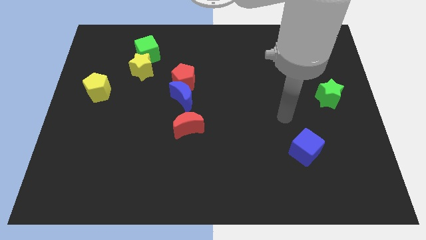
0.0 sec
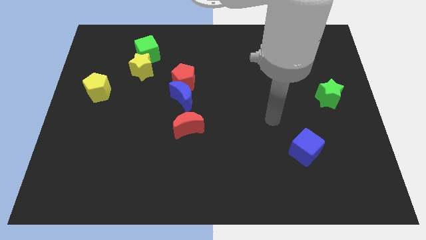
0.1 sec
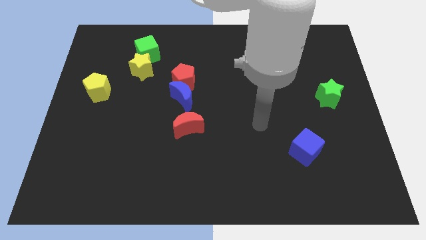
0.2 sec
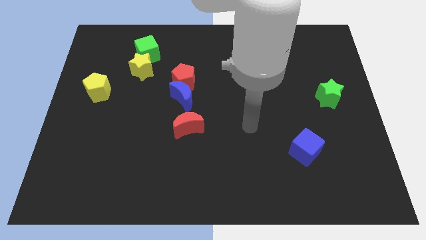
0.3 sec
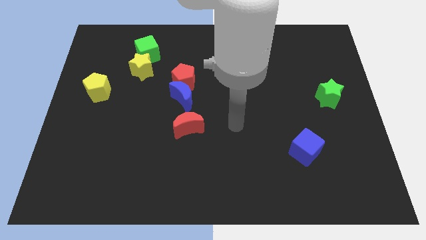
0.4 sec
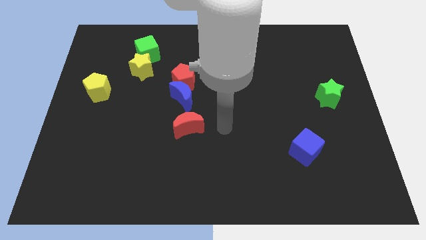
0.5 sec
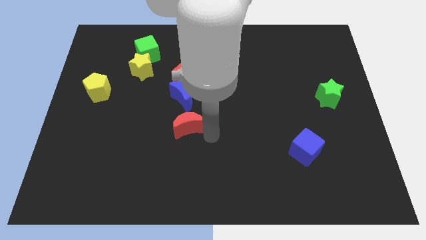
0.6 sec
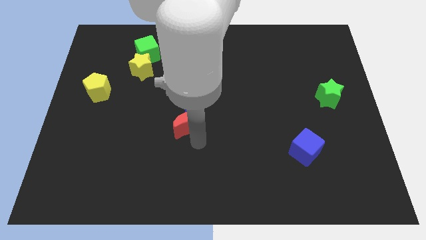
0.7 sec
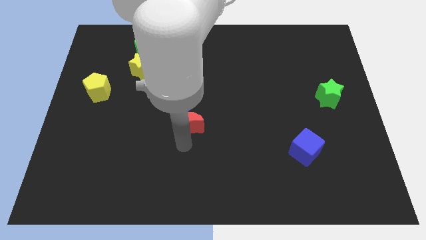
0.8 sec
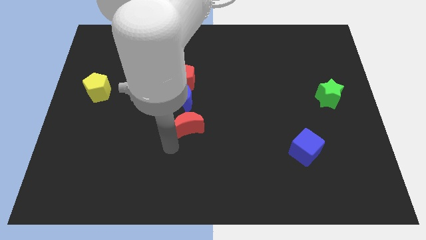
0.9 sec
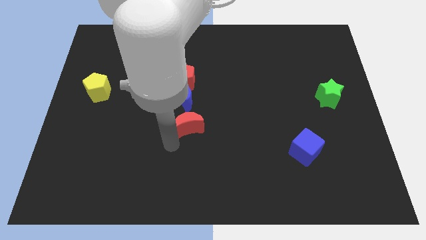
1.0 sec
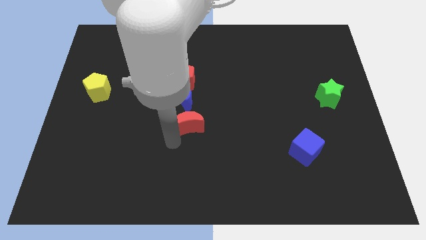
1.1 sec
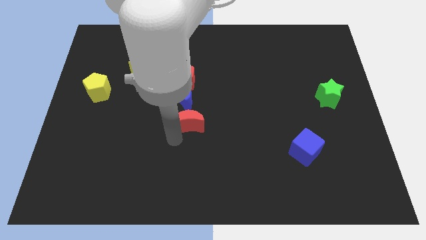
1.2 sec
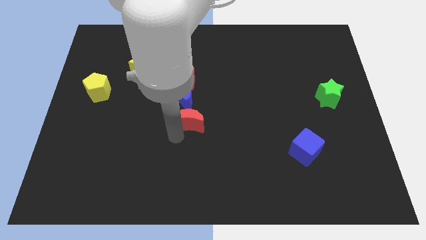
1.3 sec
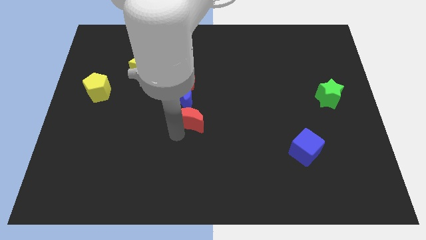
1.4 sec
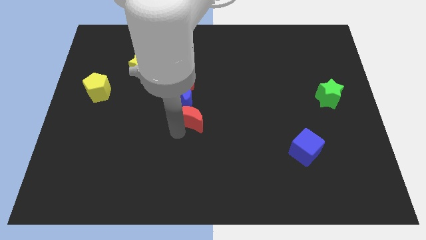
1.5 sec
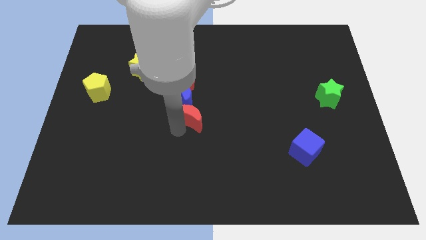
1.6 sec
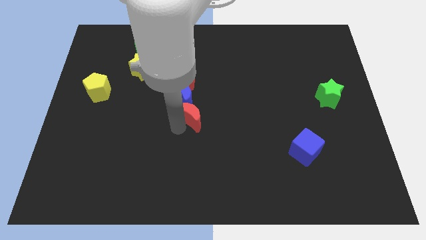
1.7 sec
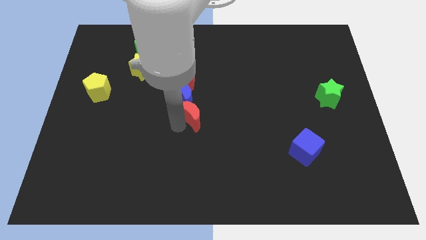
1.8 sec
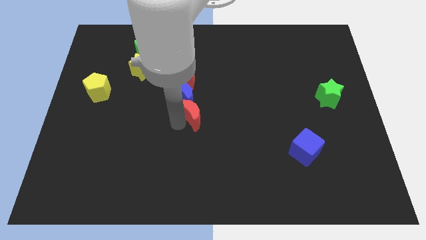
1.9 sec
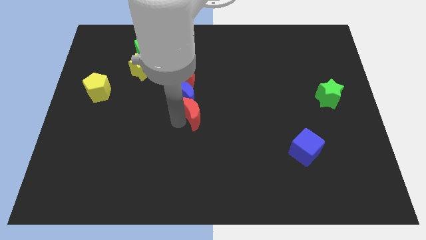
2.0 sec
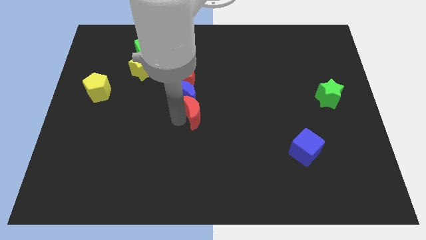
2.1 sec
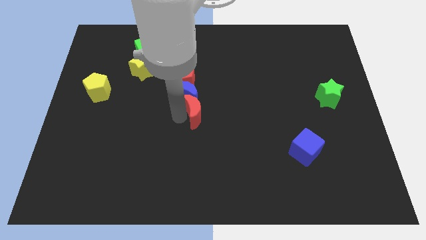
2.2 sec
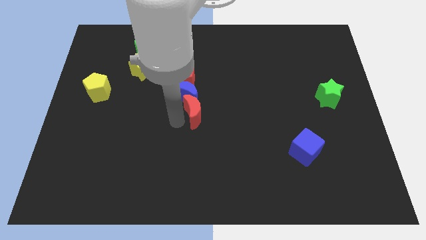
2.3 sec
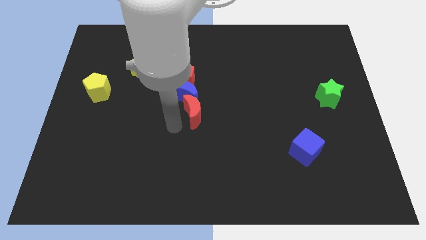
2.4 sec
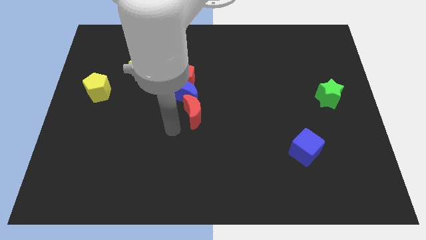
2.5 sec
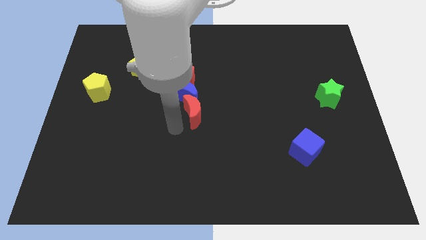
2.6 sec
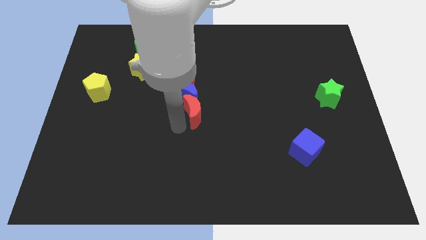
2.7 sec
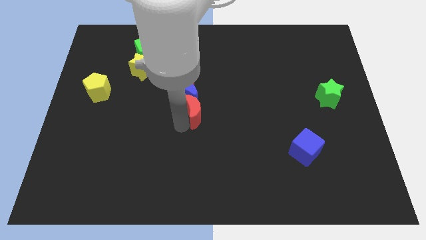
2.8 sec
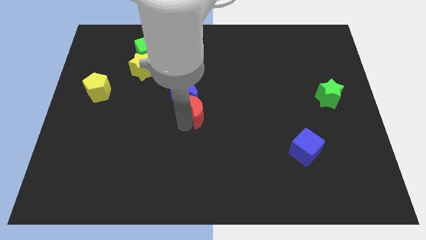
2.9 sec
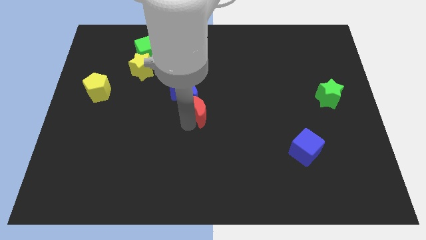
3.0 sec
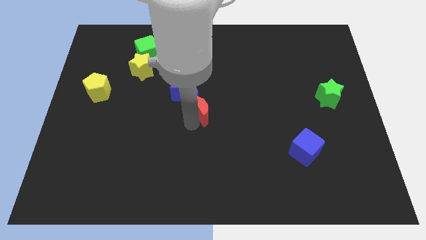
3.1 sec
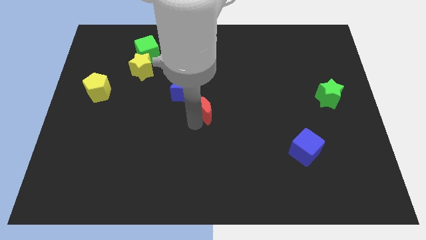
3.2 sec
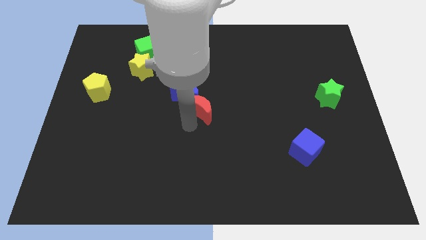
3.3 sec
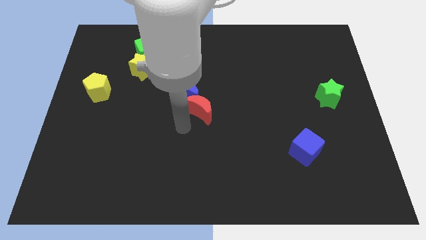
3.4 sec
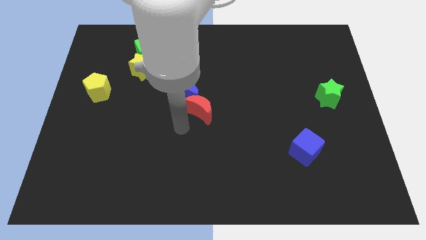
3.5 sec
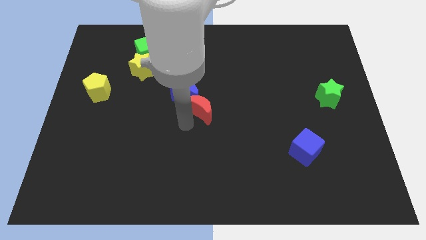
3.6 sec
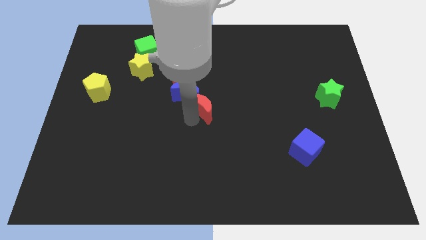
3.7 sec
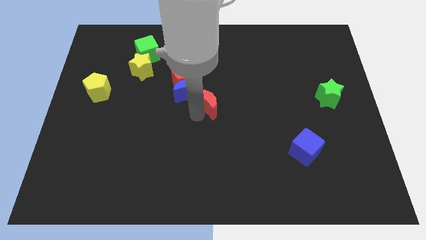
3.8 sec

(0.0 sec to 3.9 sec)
push the red moon up and then right slightly

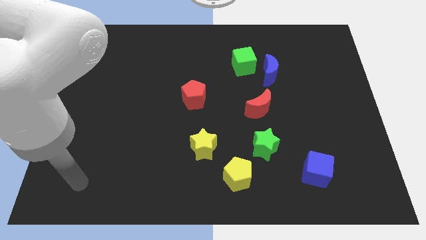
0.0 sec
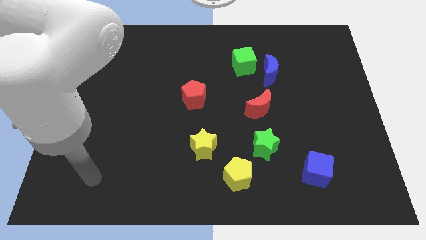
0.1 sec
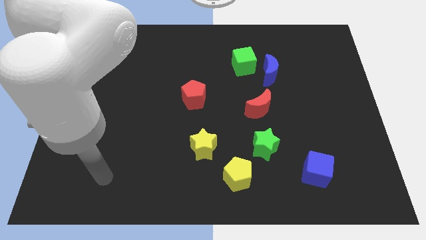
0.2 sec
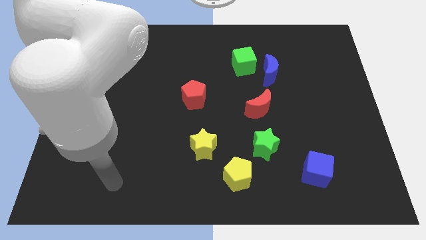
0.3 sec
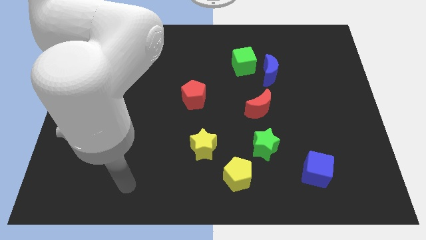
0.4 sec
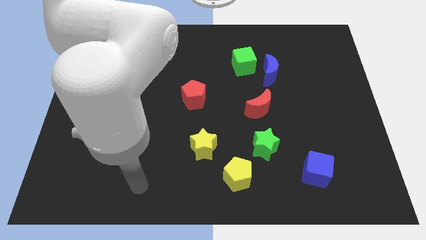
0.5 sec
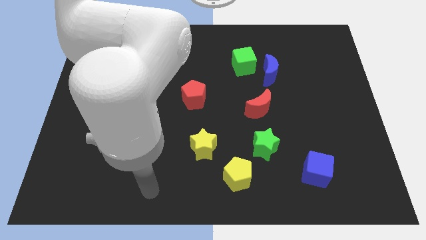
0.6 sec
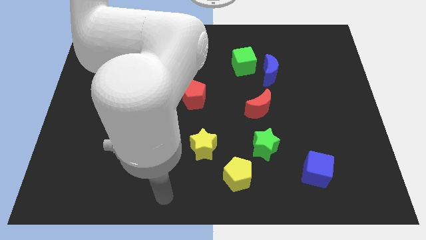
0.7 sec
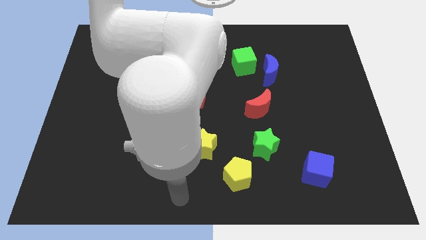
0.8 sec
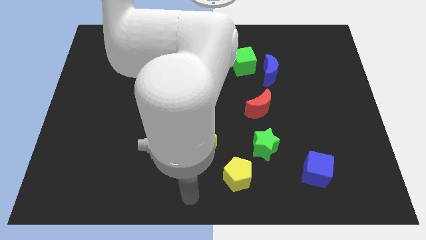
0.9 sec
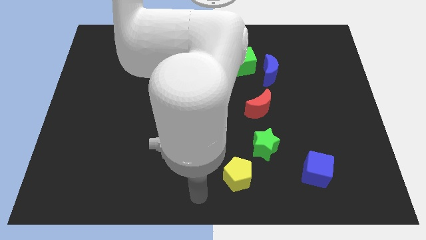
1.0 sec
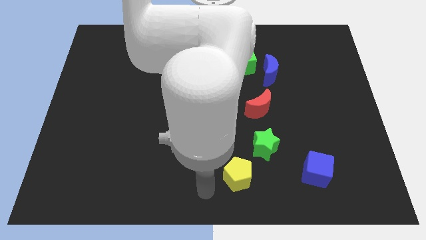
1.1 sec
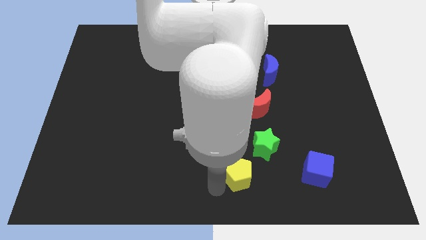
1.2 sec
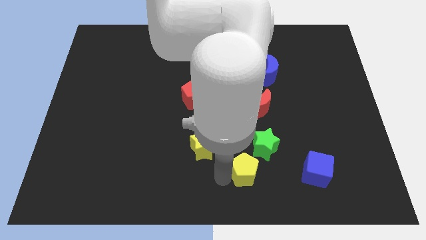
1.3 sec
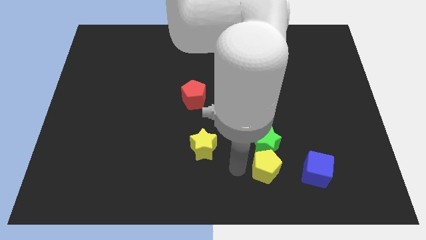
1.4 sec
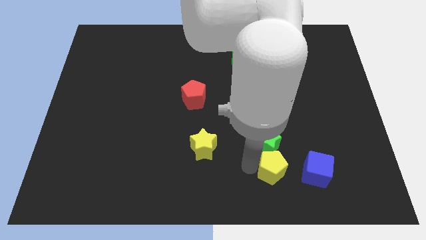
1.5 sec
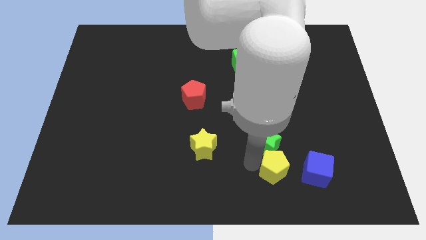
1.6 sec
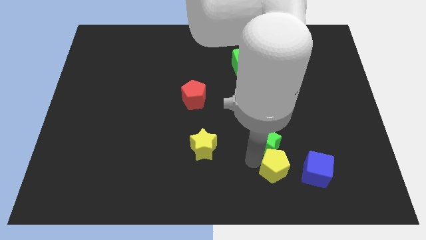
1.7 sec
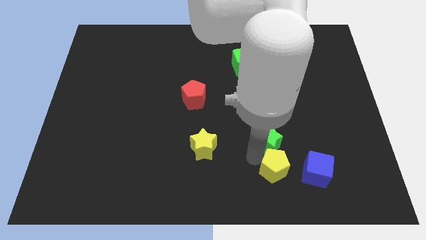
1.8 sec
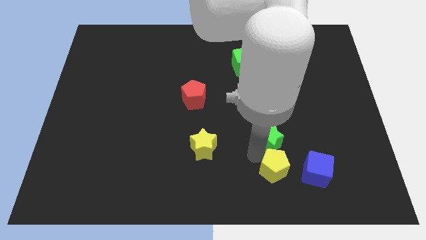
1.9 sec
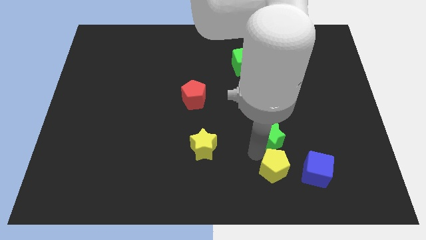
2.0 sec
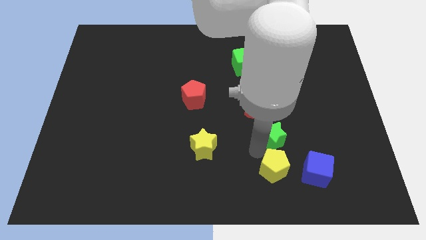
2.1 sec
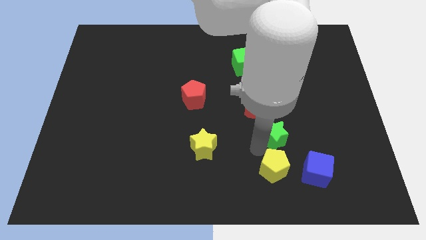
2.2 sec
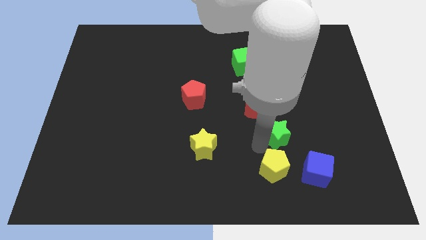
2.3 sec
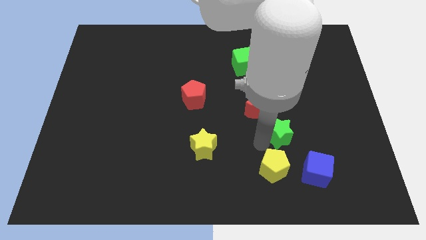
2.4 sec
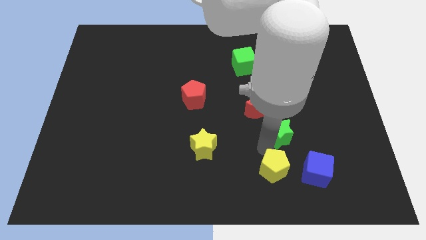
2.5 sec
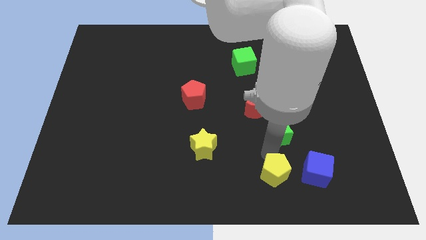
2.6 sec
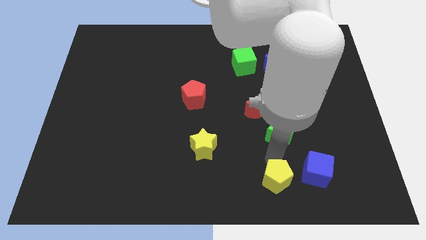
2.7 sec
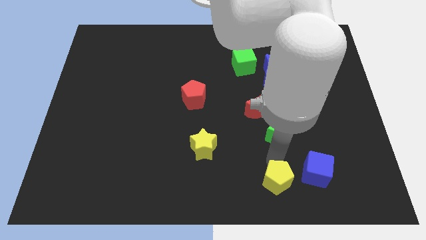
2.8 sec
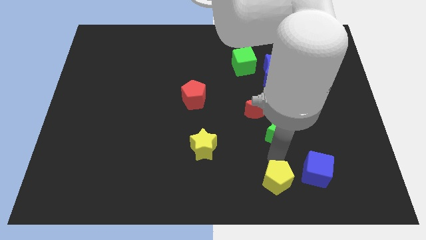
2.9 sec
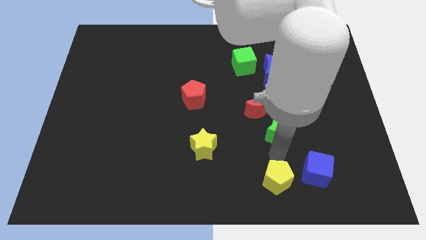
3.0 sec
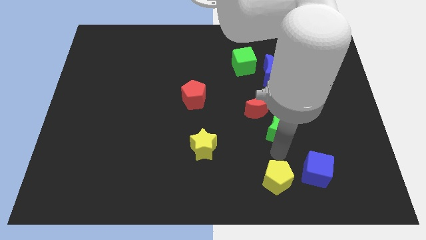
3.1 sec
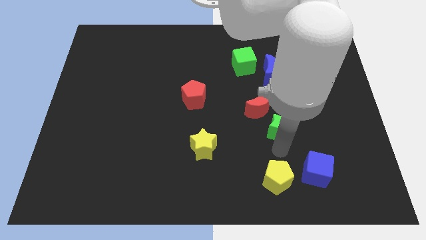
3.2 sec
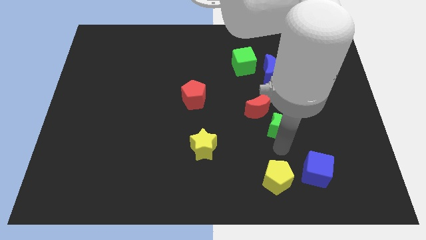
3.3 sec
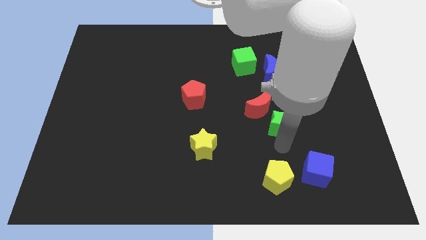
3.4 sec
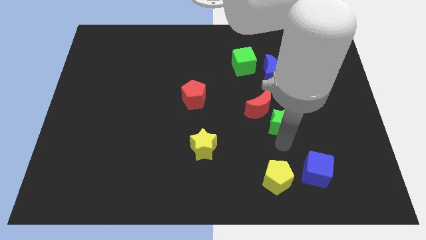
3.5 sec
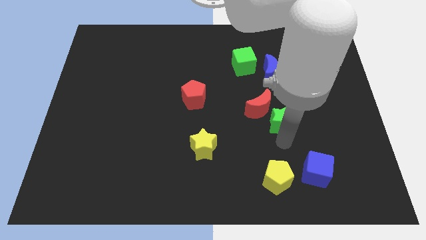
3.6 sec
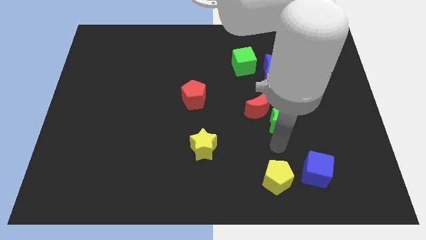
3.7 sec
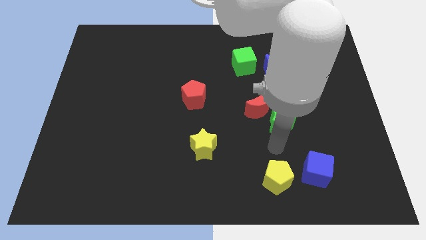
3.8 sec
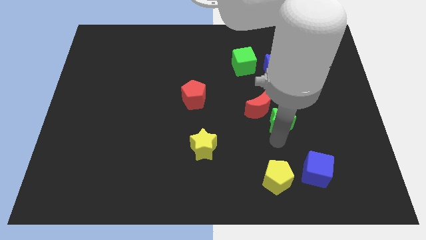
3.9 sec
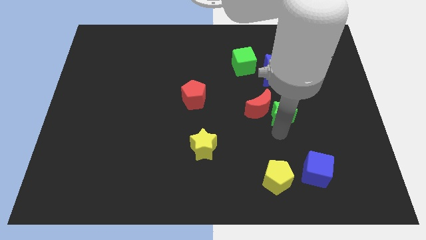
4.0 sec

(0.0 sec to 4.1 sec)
slightly move the green star up

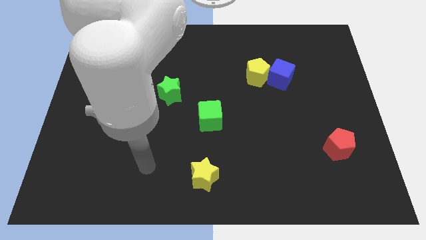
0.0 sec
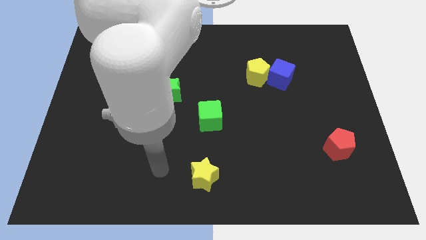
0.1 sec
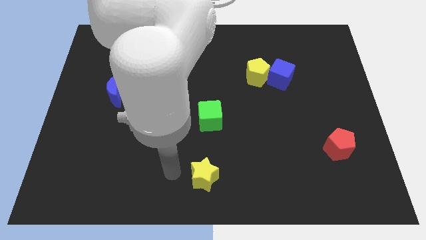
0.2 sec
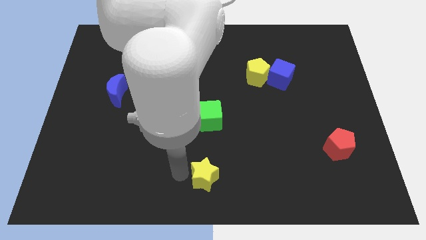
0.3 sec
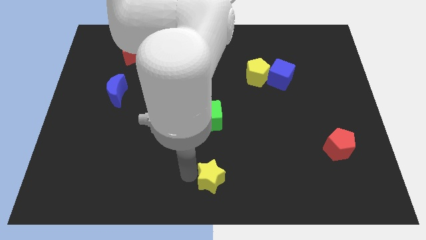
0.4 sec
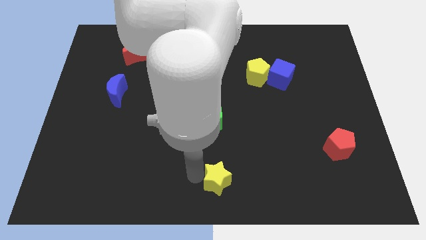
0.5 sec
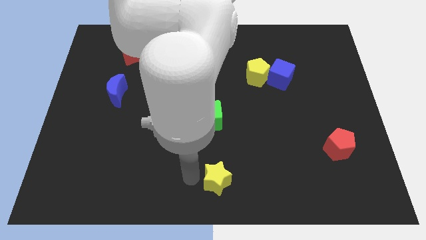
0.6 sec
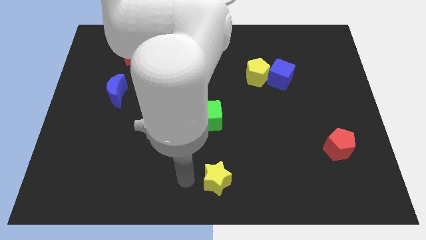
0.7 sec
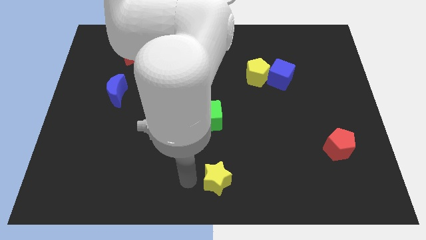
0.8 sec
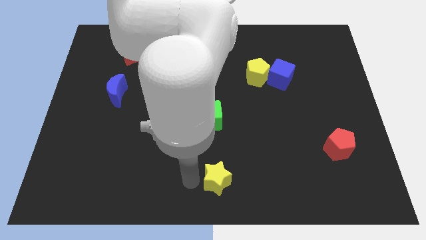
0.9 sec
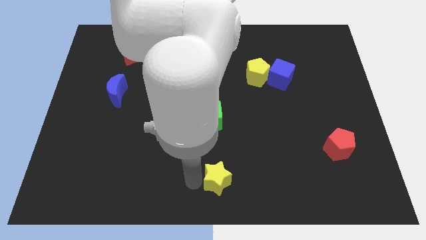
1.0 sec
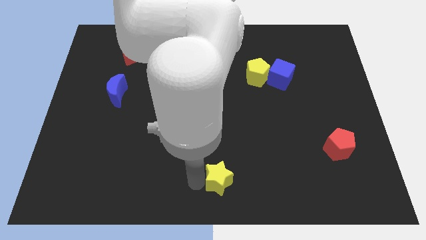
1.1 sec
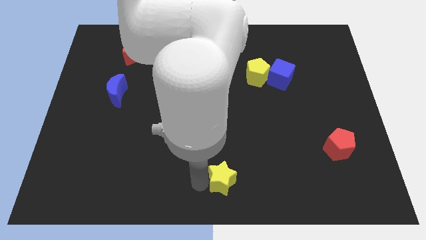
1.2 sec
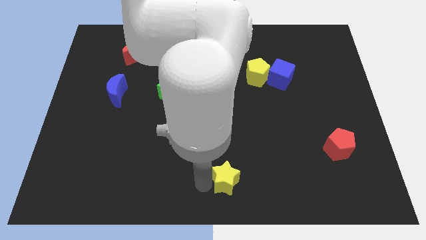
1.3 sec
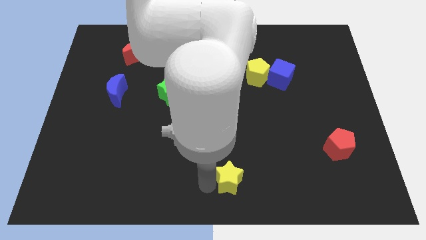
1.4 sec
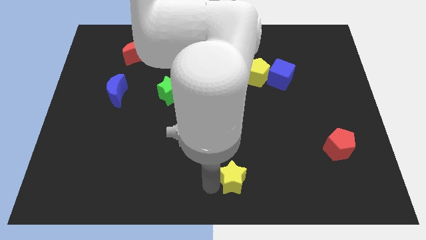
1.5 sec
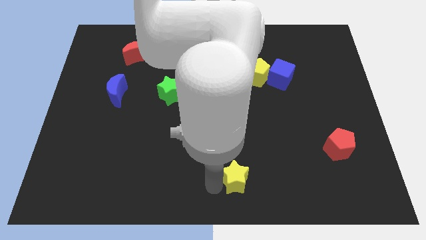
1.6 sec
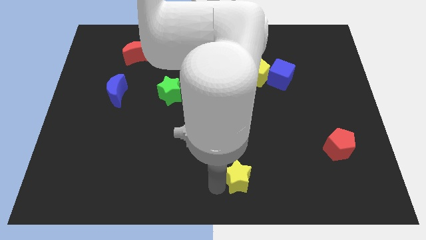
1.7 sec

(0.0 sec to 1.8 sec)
slightly slide the yellow star right
